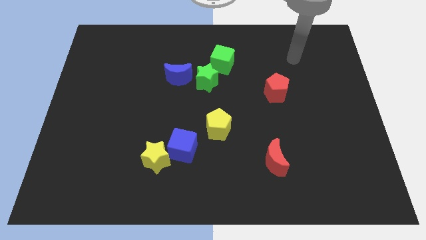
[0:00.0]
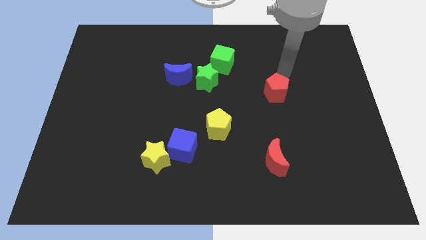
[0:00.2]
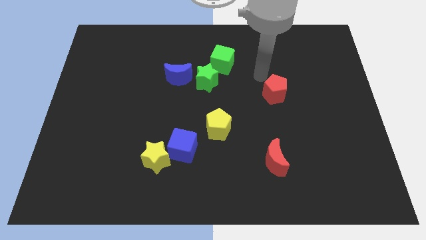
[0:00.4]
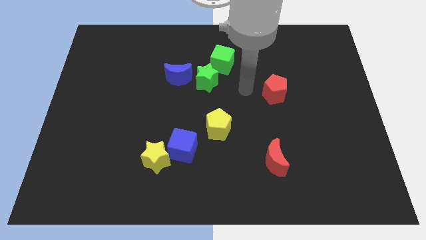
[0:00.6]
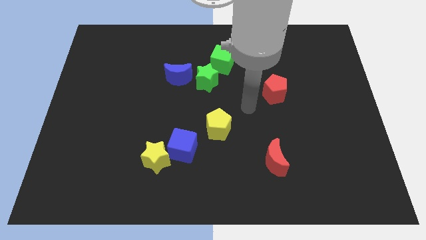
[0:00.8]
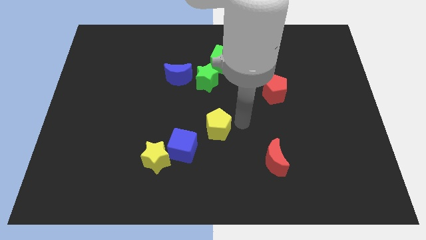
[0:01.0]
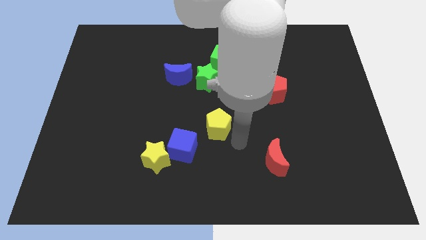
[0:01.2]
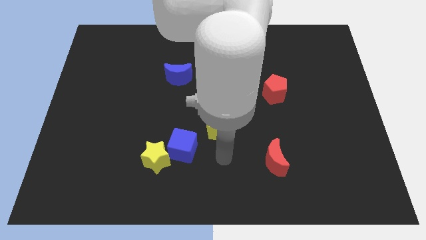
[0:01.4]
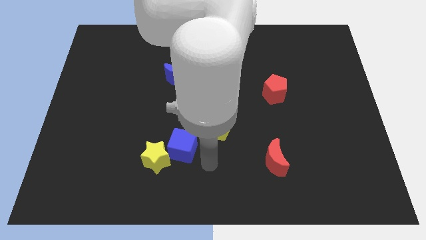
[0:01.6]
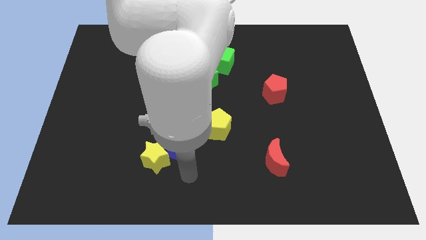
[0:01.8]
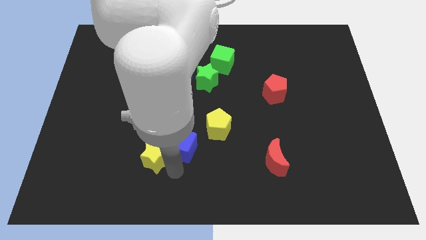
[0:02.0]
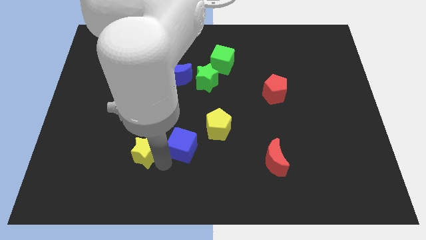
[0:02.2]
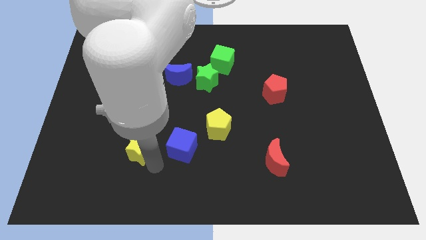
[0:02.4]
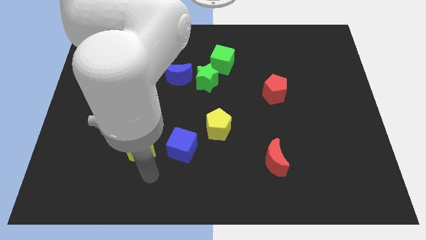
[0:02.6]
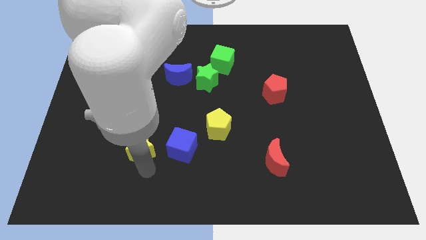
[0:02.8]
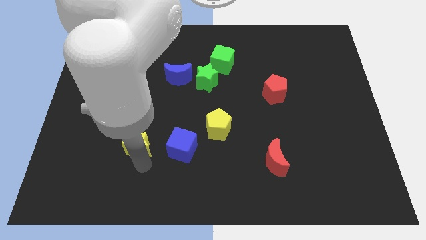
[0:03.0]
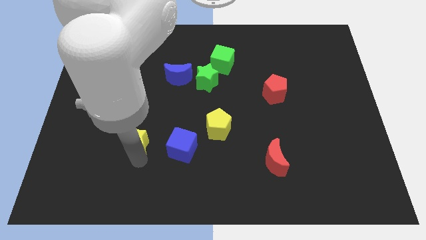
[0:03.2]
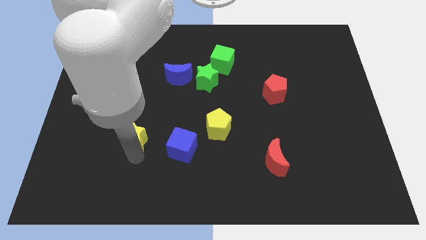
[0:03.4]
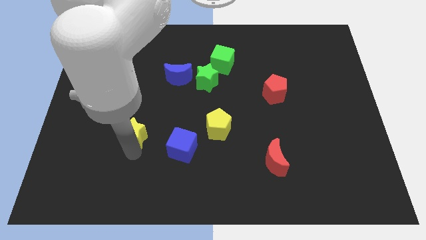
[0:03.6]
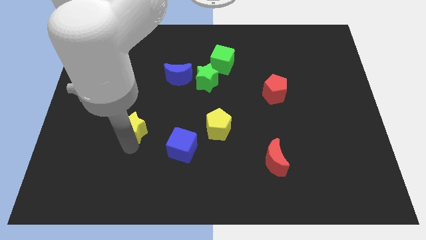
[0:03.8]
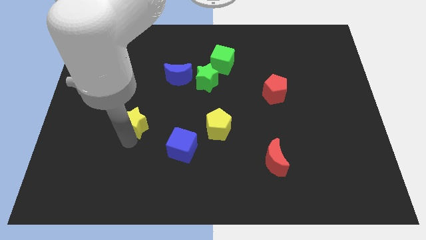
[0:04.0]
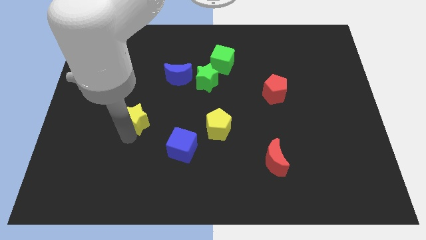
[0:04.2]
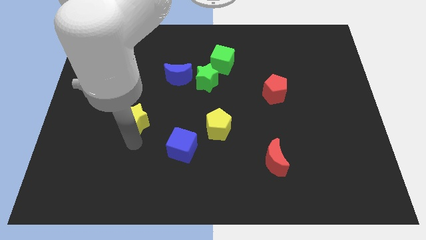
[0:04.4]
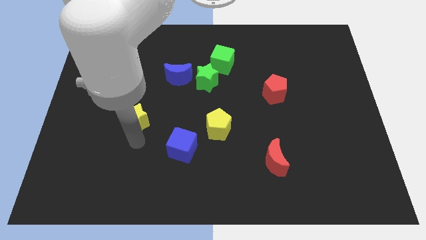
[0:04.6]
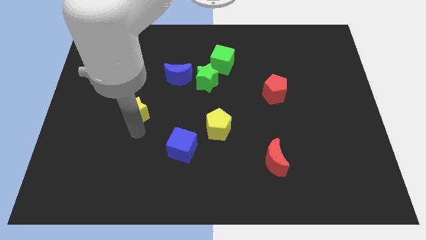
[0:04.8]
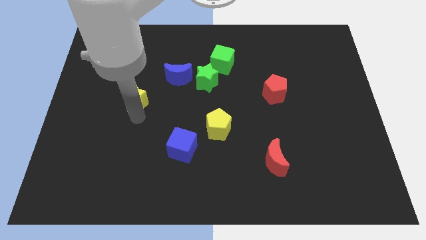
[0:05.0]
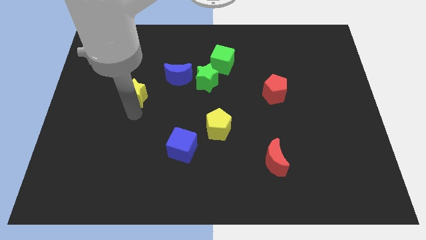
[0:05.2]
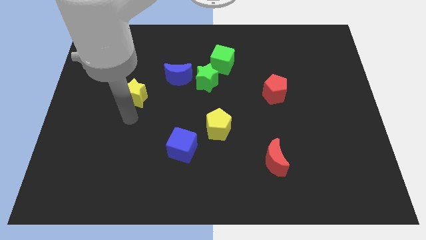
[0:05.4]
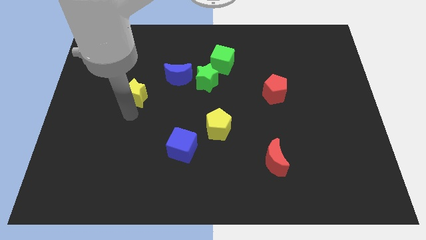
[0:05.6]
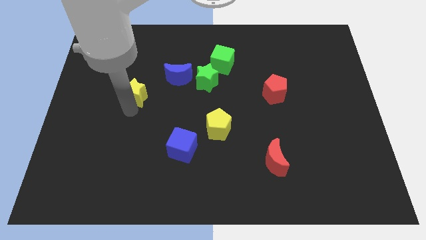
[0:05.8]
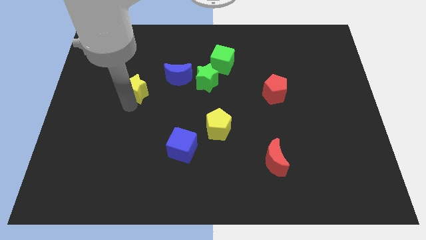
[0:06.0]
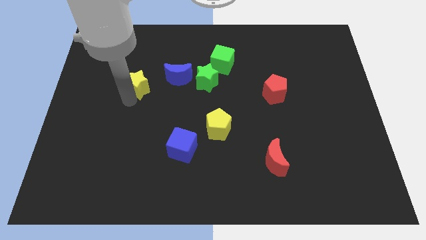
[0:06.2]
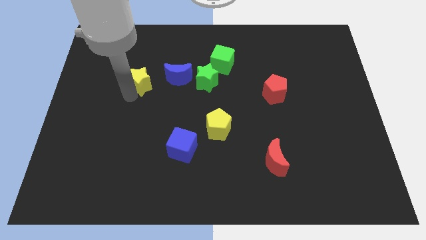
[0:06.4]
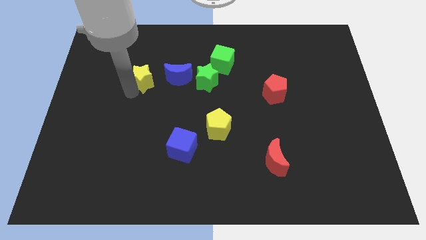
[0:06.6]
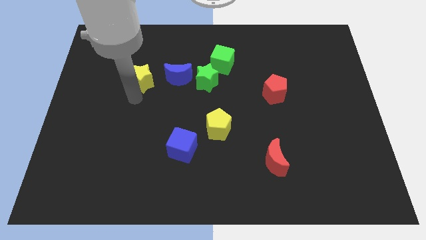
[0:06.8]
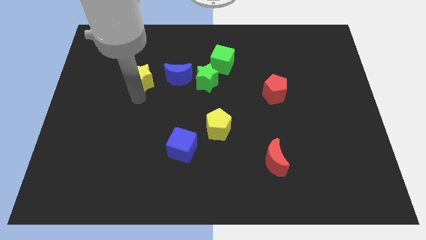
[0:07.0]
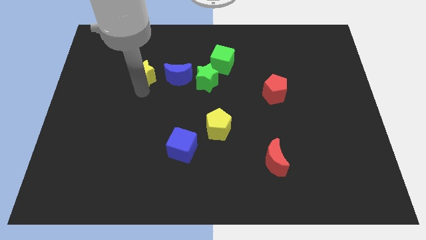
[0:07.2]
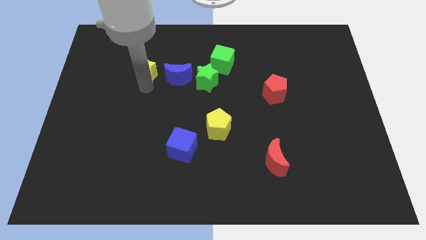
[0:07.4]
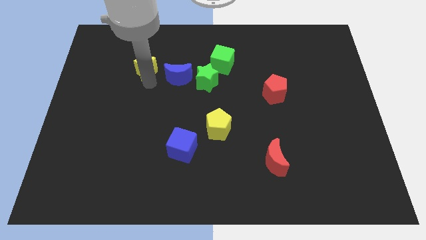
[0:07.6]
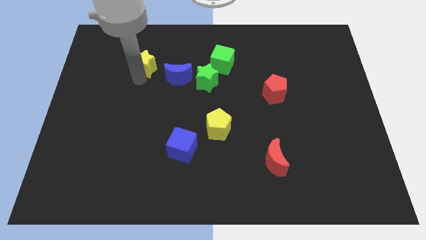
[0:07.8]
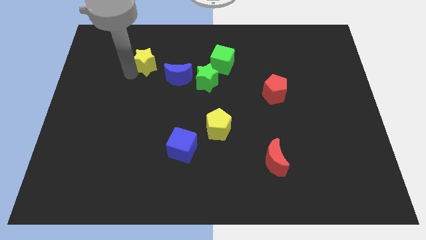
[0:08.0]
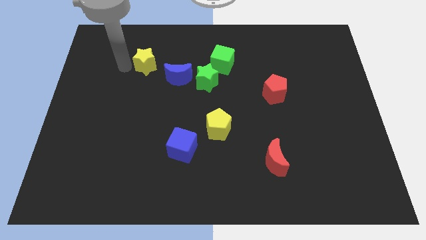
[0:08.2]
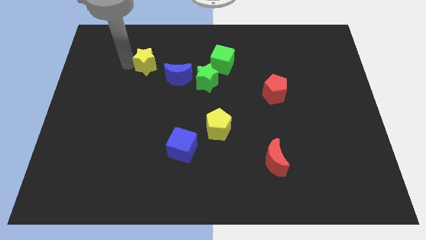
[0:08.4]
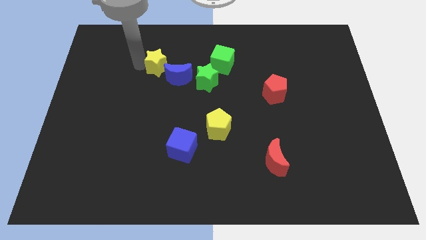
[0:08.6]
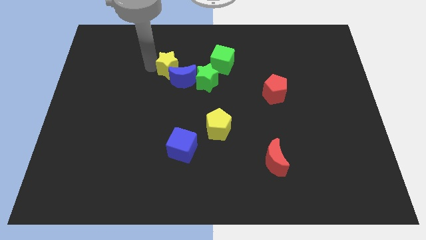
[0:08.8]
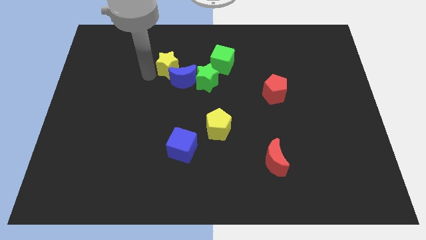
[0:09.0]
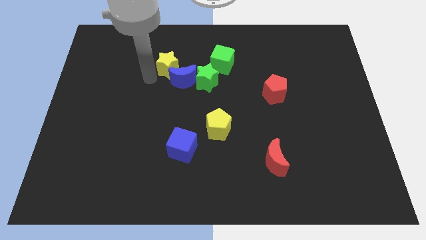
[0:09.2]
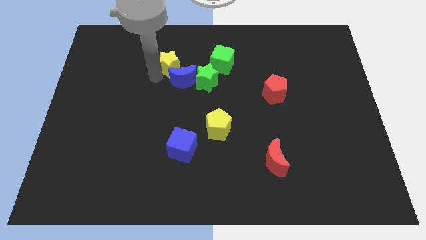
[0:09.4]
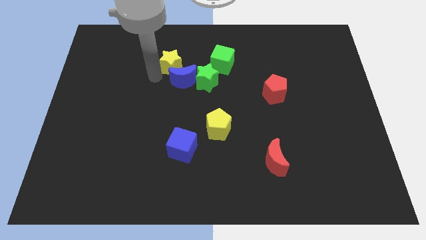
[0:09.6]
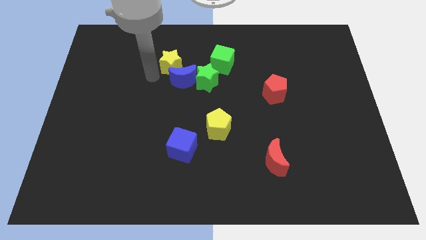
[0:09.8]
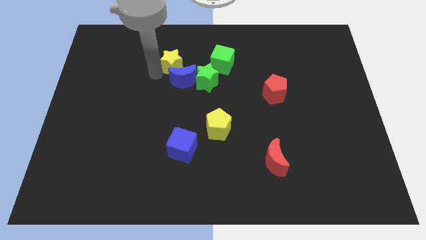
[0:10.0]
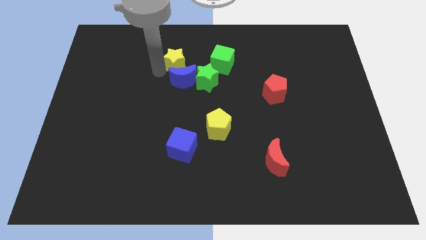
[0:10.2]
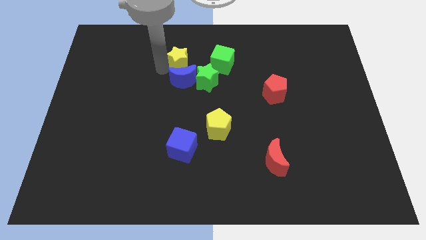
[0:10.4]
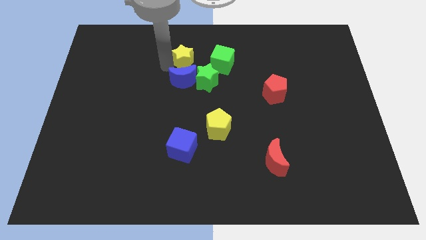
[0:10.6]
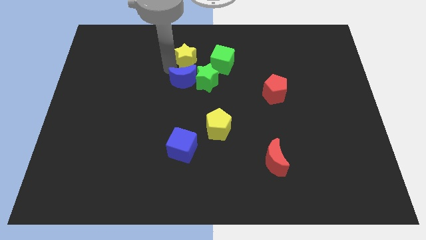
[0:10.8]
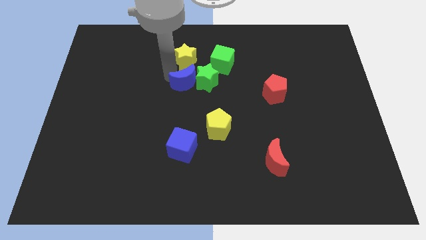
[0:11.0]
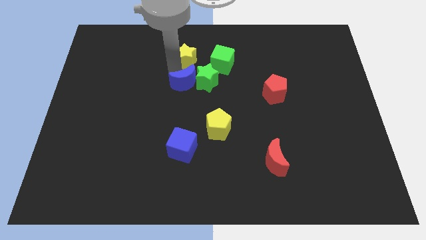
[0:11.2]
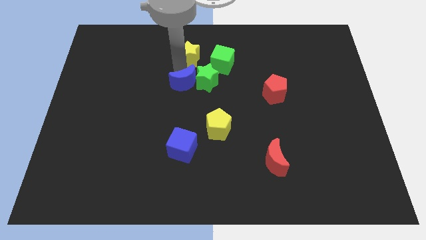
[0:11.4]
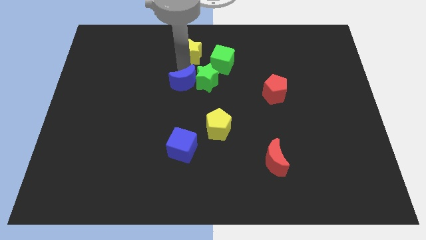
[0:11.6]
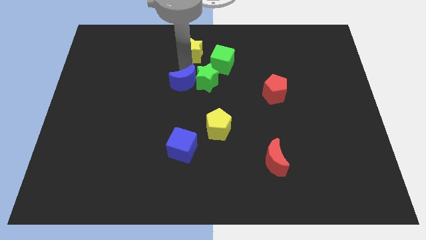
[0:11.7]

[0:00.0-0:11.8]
slide the yellow star to the top side

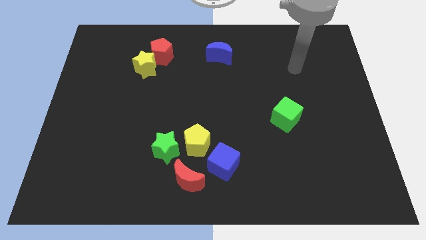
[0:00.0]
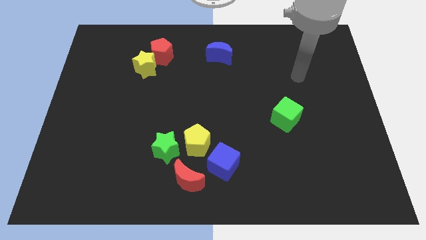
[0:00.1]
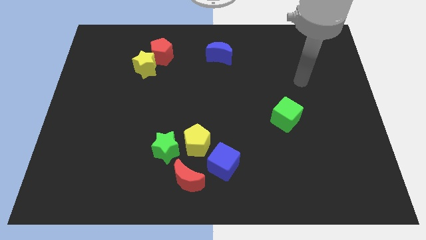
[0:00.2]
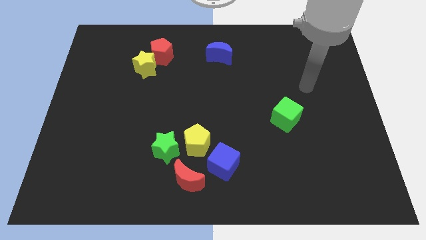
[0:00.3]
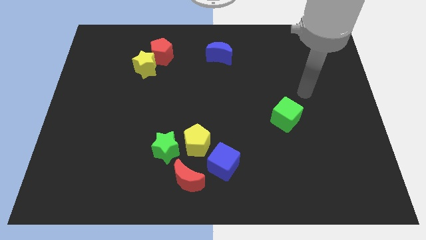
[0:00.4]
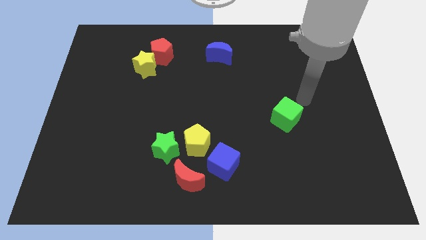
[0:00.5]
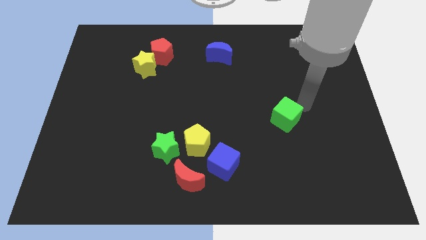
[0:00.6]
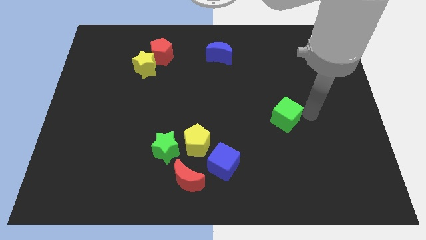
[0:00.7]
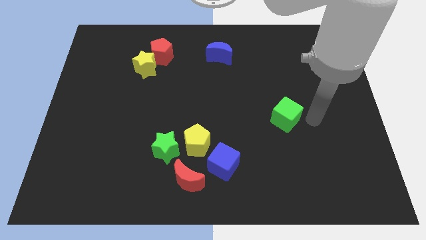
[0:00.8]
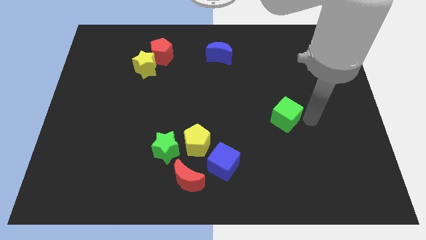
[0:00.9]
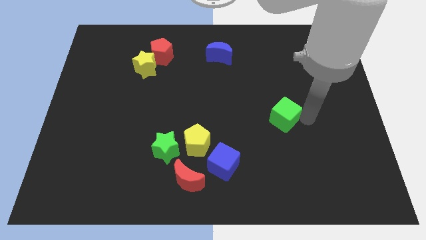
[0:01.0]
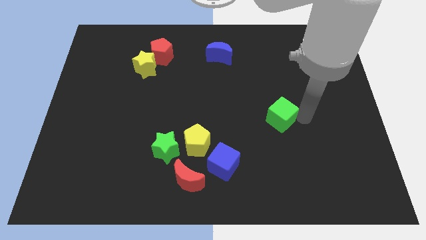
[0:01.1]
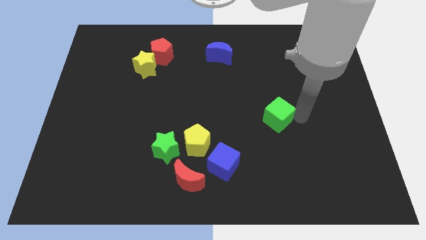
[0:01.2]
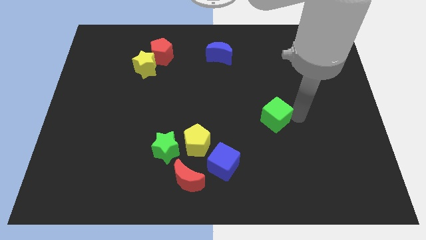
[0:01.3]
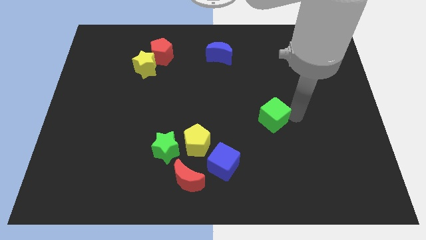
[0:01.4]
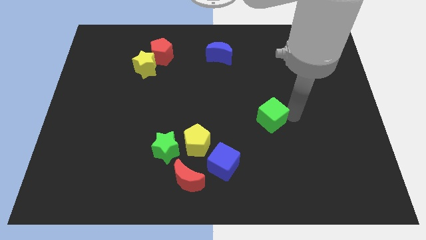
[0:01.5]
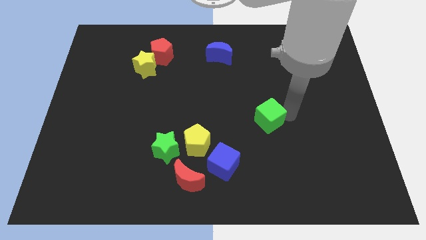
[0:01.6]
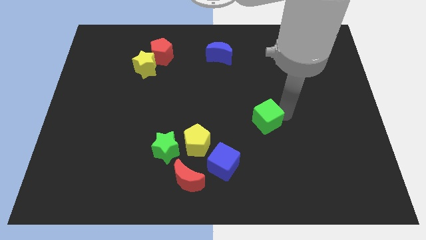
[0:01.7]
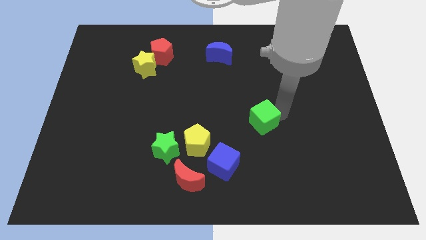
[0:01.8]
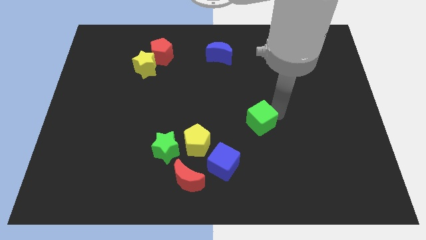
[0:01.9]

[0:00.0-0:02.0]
slide the green cube to the center of the board
